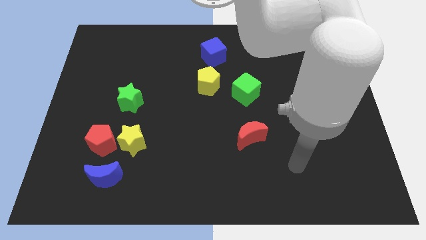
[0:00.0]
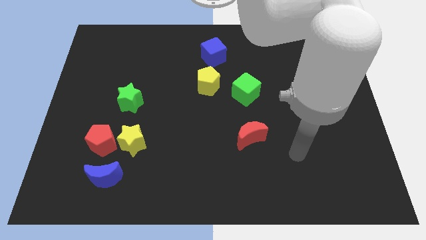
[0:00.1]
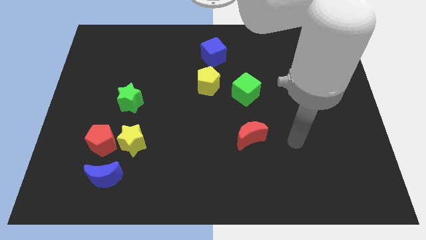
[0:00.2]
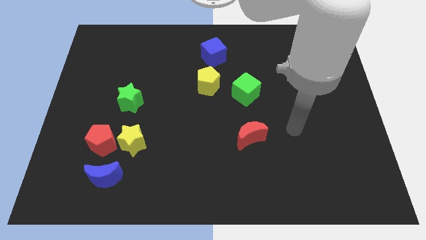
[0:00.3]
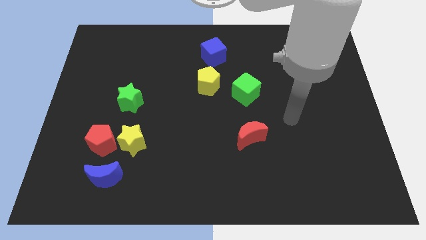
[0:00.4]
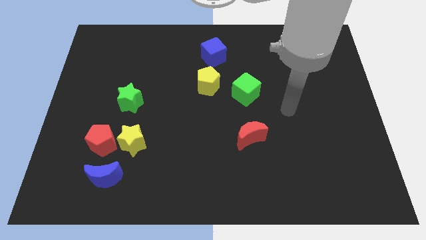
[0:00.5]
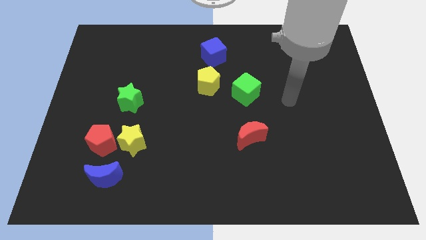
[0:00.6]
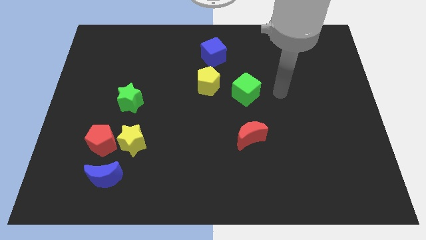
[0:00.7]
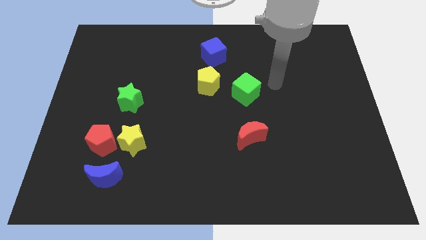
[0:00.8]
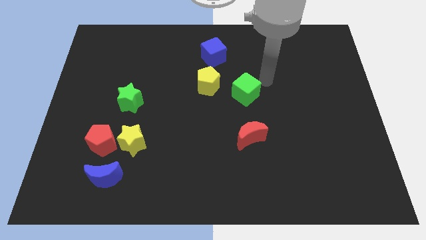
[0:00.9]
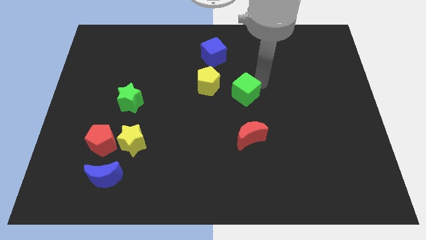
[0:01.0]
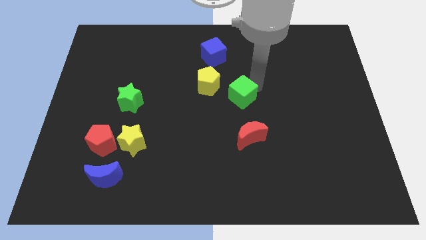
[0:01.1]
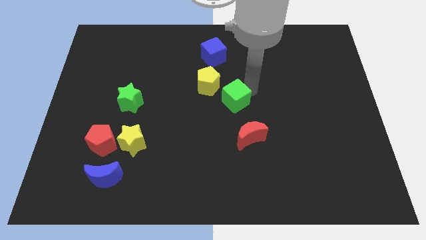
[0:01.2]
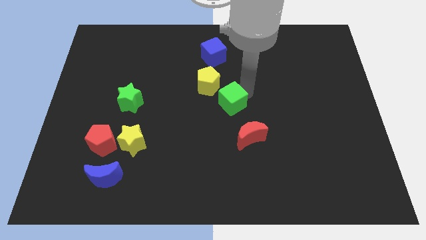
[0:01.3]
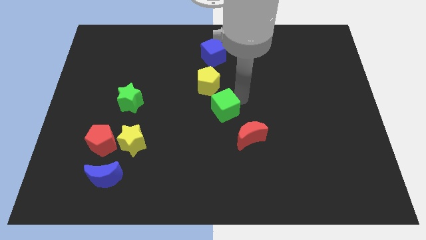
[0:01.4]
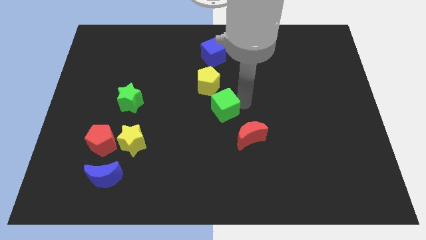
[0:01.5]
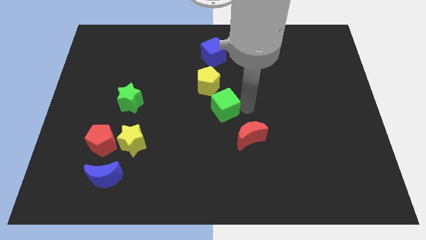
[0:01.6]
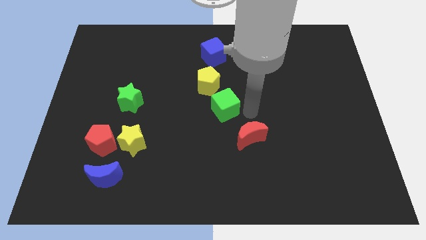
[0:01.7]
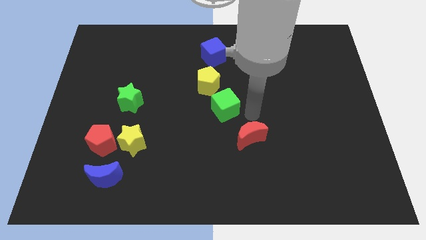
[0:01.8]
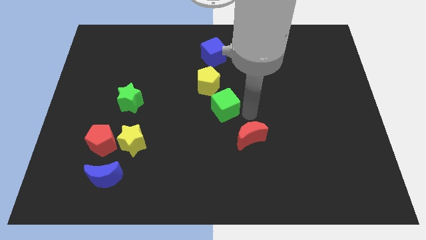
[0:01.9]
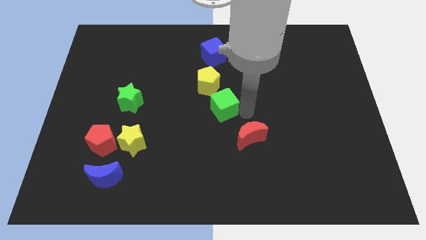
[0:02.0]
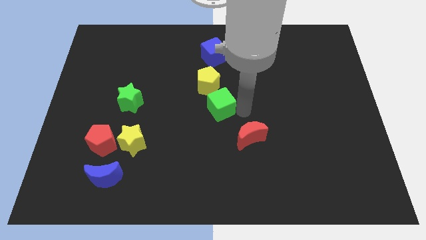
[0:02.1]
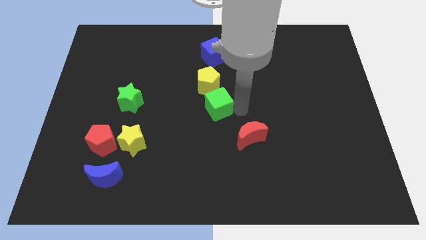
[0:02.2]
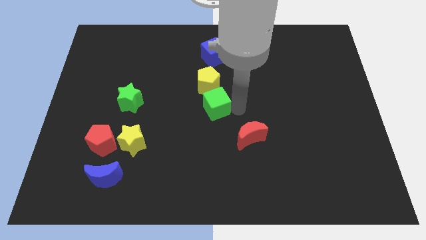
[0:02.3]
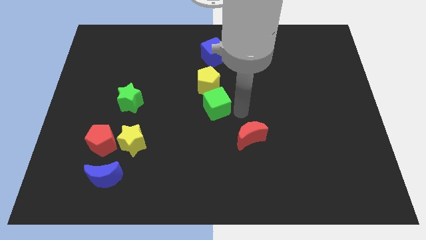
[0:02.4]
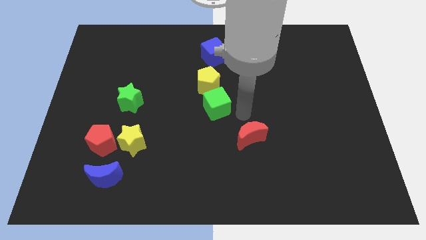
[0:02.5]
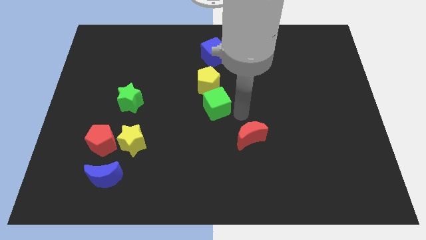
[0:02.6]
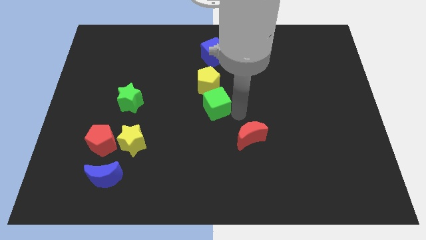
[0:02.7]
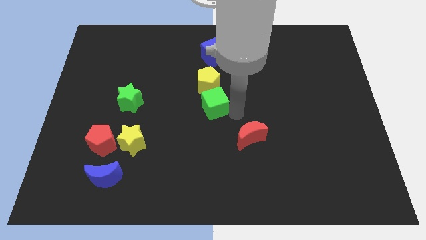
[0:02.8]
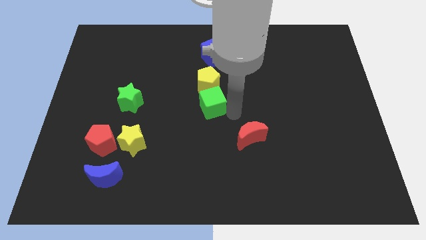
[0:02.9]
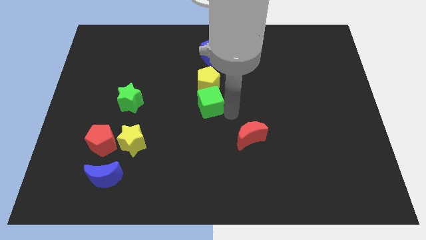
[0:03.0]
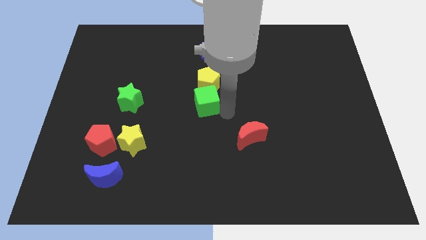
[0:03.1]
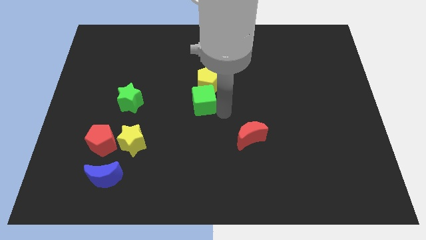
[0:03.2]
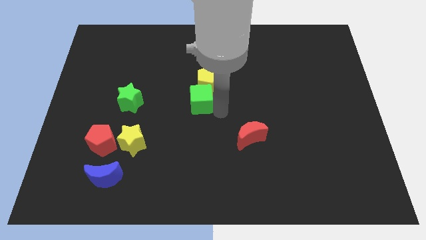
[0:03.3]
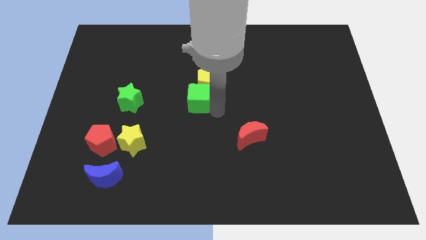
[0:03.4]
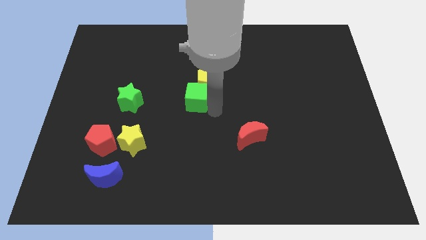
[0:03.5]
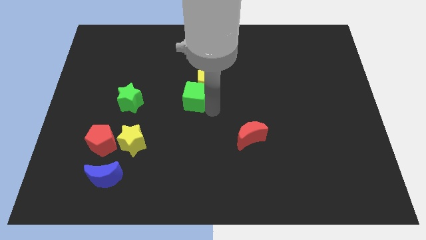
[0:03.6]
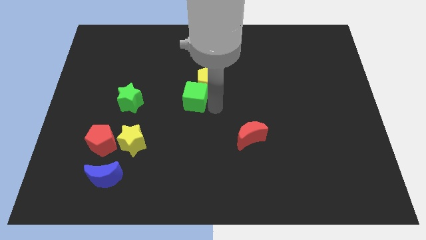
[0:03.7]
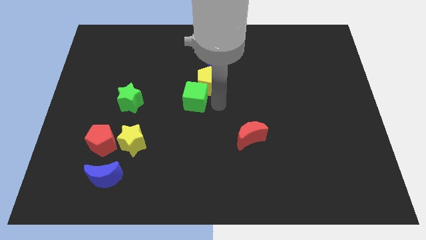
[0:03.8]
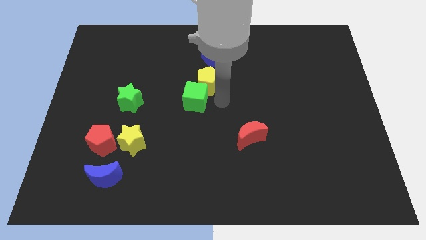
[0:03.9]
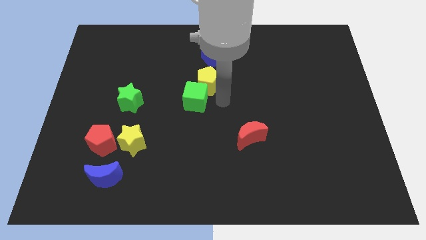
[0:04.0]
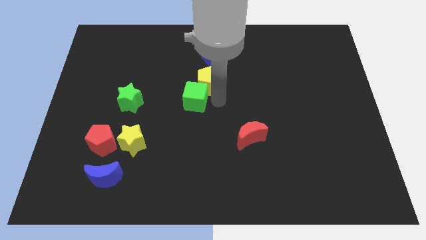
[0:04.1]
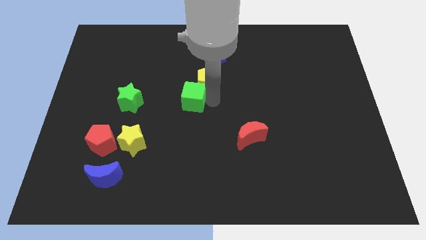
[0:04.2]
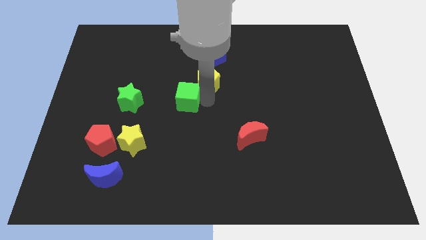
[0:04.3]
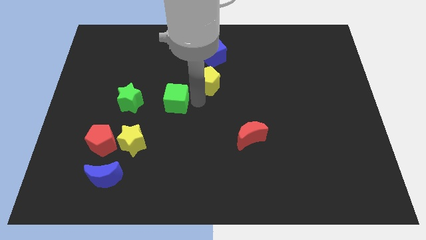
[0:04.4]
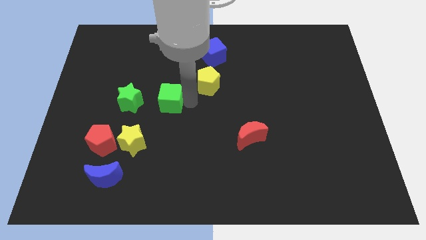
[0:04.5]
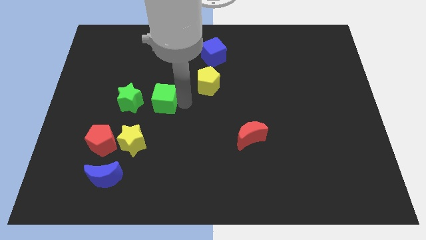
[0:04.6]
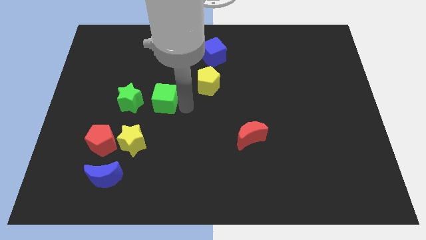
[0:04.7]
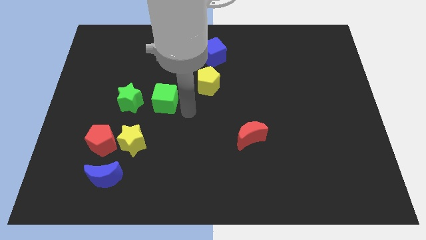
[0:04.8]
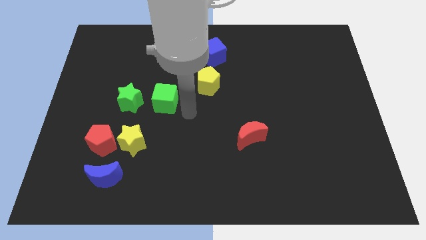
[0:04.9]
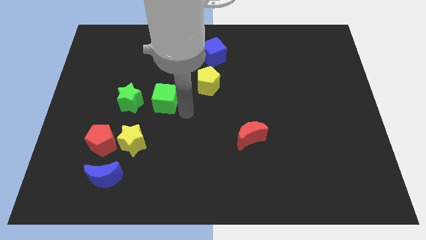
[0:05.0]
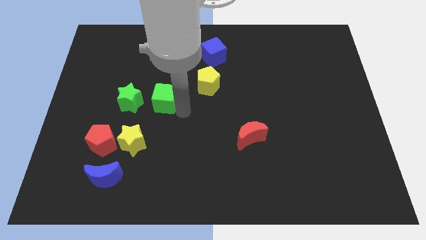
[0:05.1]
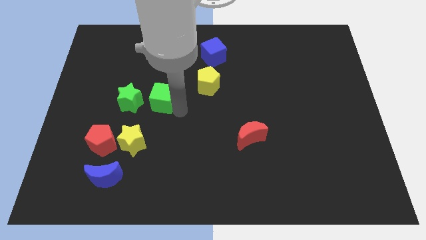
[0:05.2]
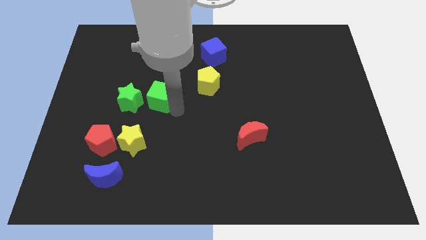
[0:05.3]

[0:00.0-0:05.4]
slide the green cube to the left

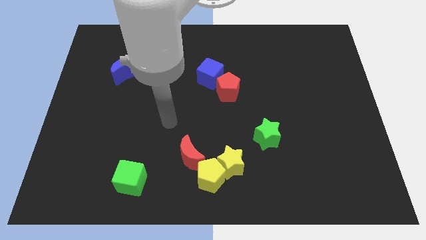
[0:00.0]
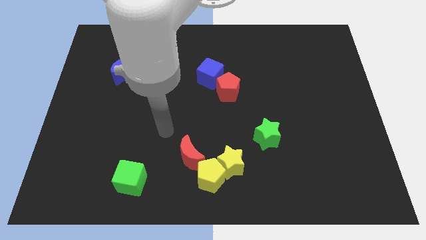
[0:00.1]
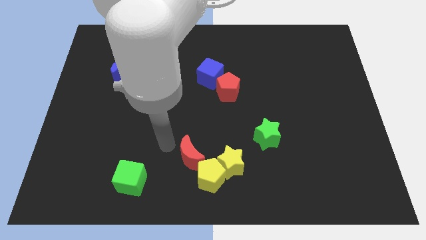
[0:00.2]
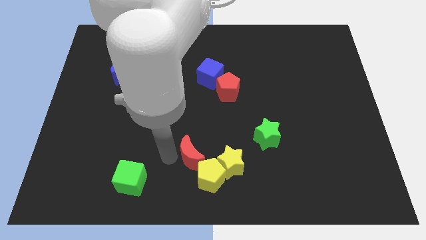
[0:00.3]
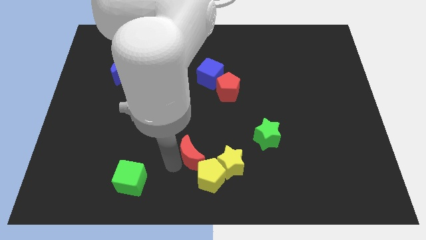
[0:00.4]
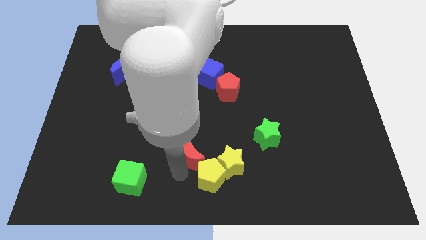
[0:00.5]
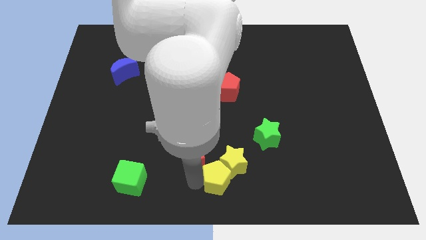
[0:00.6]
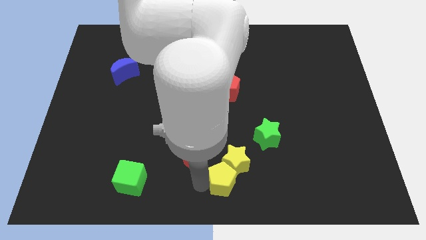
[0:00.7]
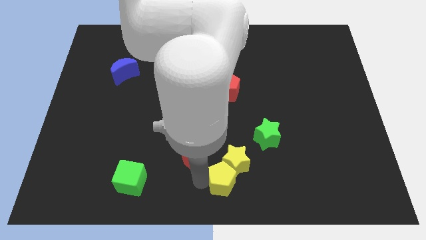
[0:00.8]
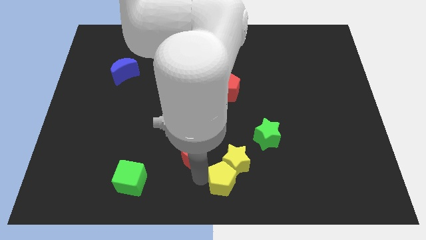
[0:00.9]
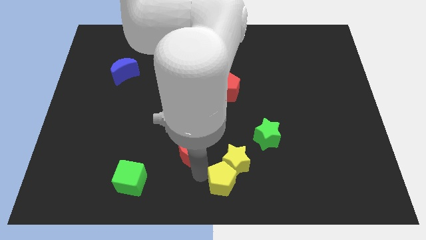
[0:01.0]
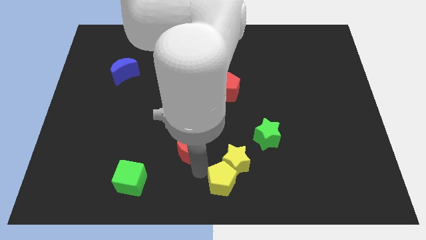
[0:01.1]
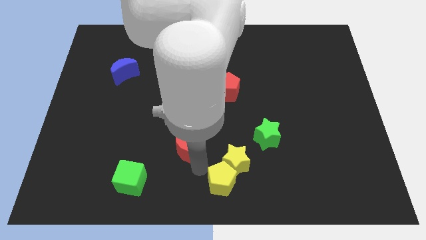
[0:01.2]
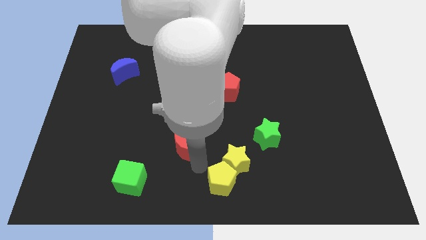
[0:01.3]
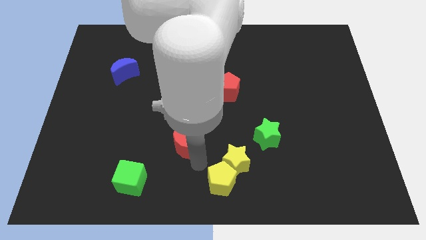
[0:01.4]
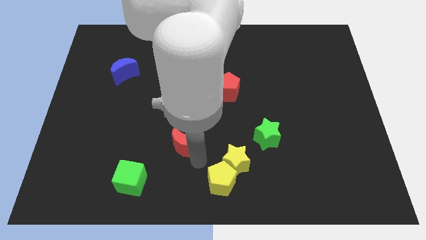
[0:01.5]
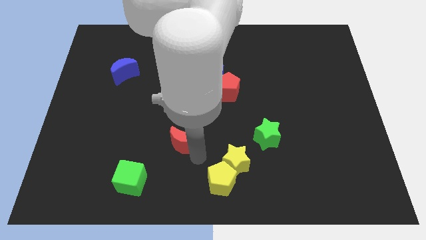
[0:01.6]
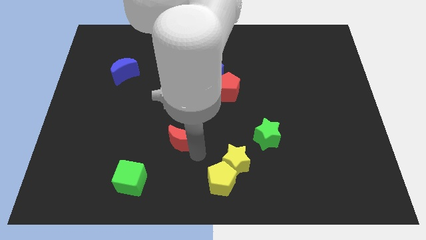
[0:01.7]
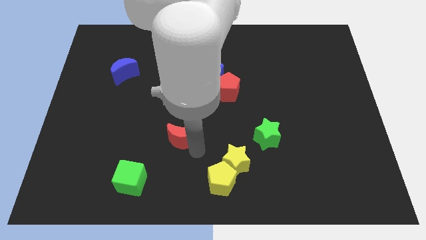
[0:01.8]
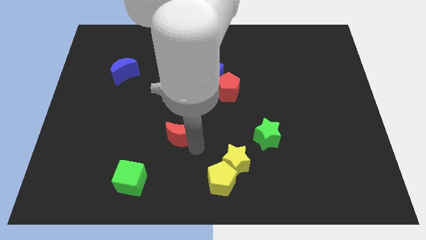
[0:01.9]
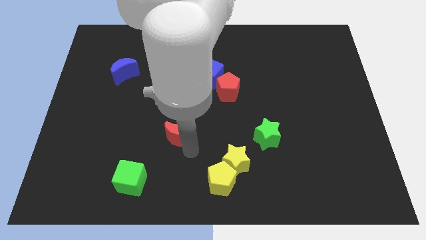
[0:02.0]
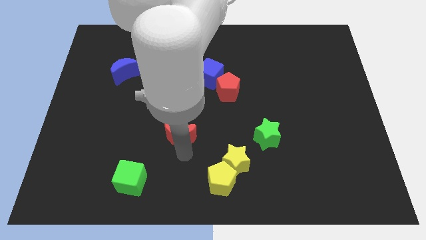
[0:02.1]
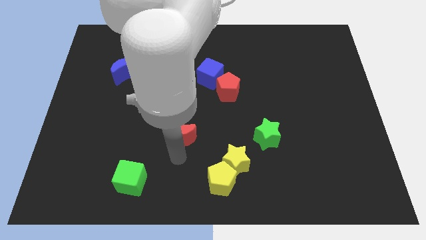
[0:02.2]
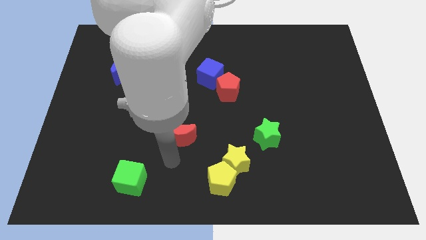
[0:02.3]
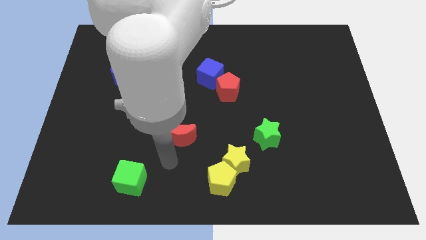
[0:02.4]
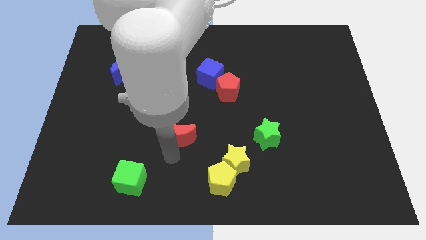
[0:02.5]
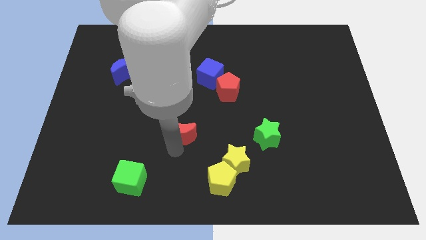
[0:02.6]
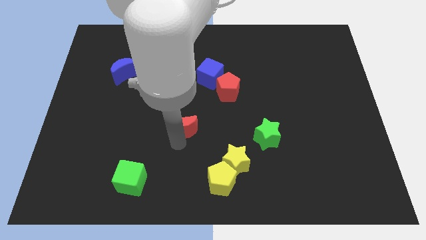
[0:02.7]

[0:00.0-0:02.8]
push the red moon upwards a little bit
